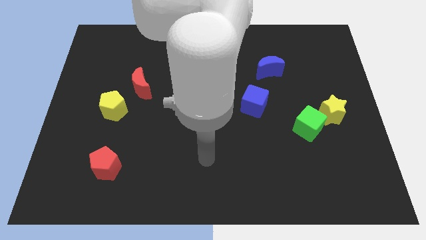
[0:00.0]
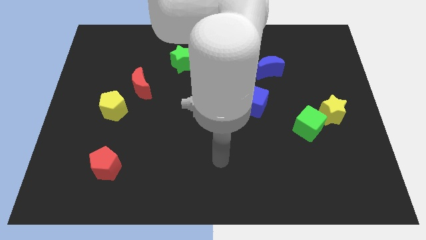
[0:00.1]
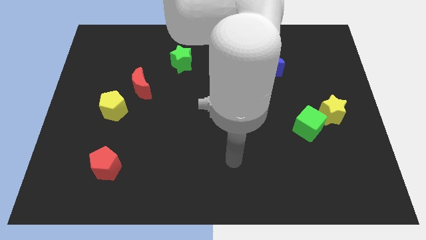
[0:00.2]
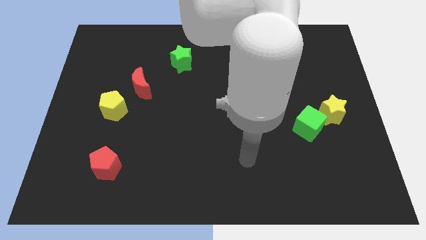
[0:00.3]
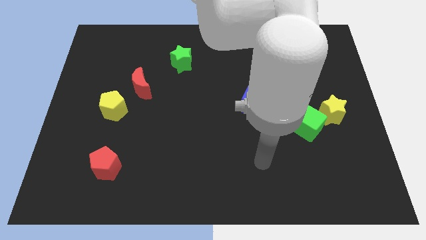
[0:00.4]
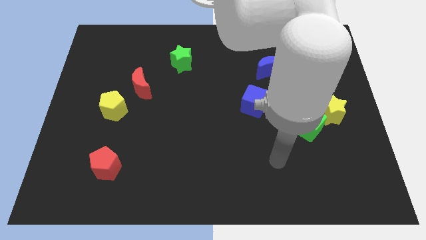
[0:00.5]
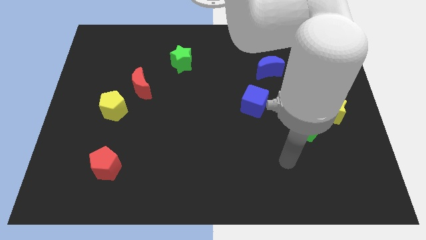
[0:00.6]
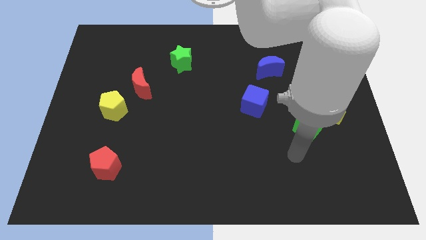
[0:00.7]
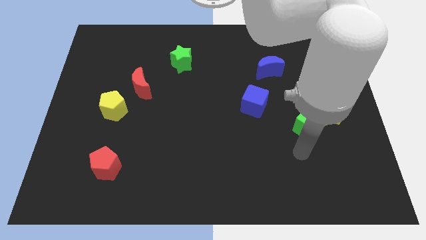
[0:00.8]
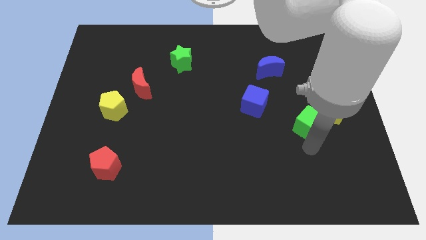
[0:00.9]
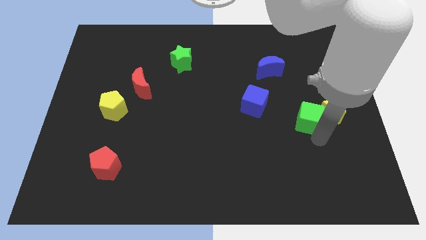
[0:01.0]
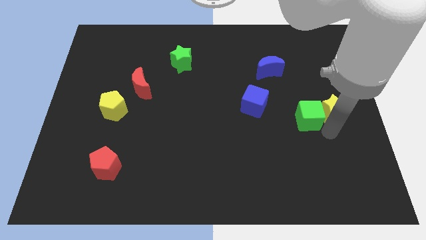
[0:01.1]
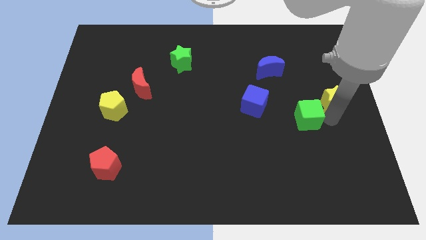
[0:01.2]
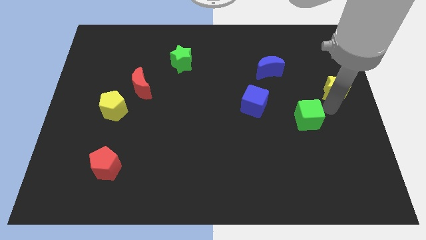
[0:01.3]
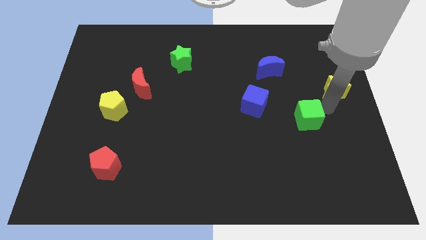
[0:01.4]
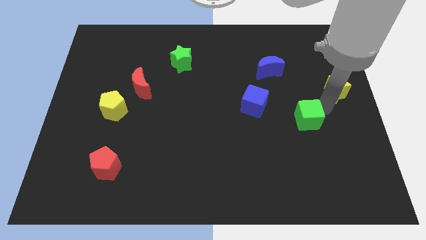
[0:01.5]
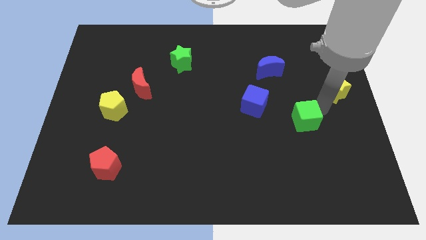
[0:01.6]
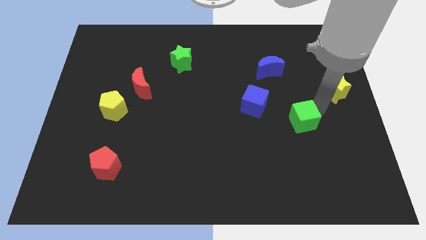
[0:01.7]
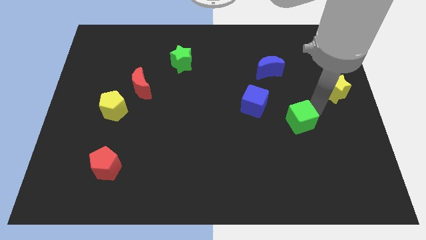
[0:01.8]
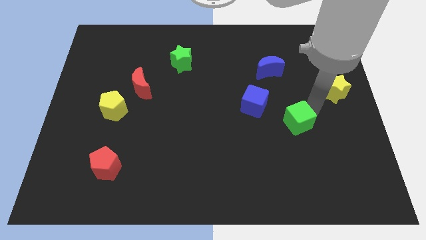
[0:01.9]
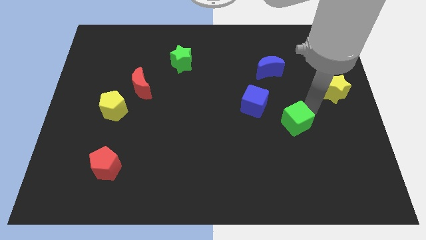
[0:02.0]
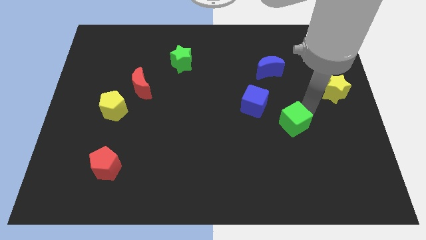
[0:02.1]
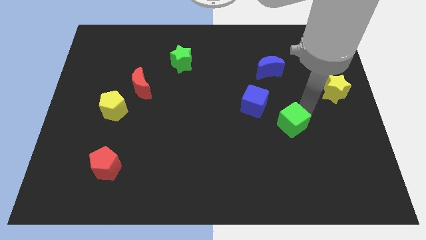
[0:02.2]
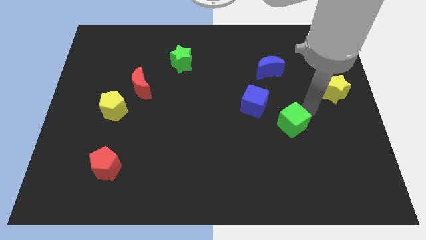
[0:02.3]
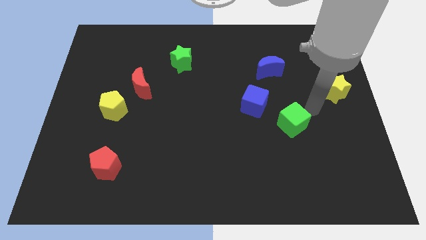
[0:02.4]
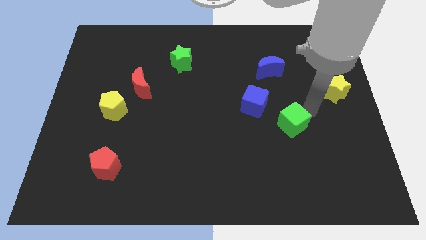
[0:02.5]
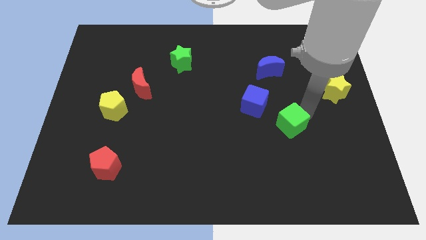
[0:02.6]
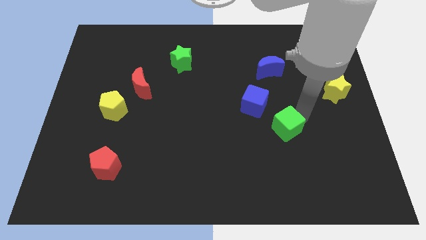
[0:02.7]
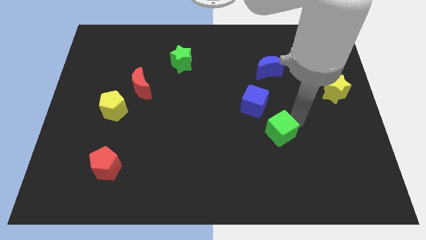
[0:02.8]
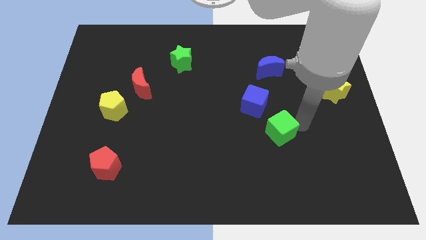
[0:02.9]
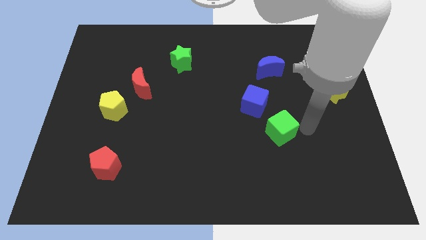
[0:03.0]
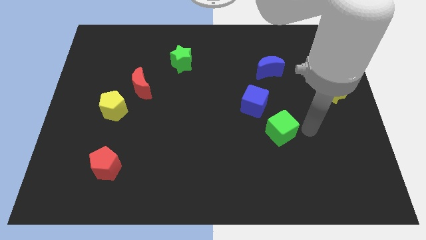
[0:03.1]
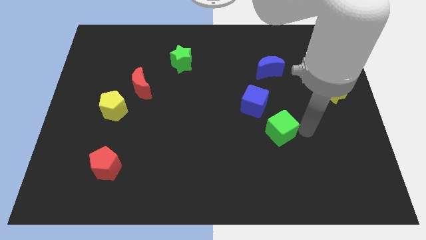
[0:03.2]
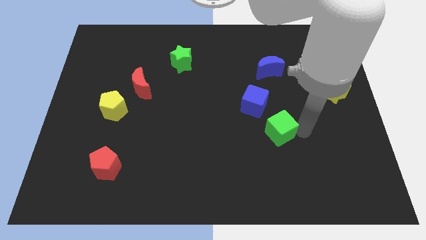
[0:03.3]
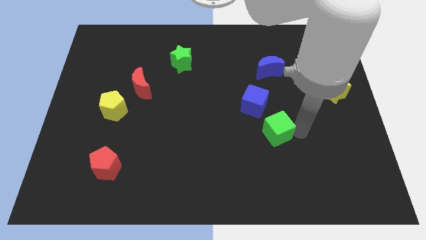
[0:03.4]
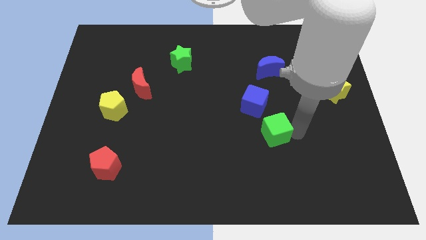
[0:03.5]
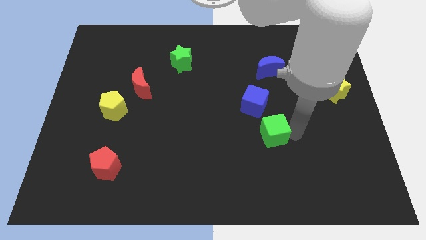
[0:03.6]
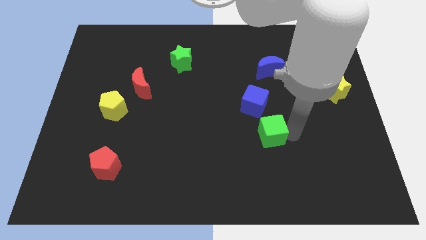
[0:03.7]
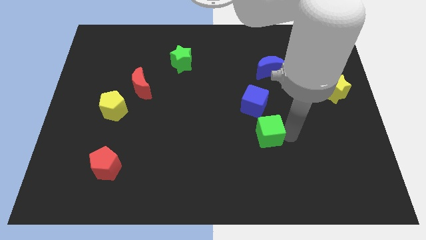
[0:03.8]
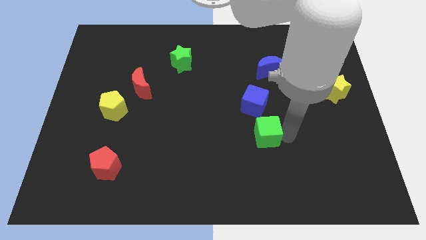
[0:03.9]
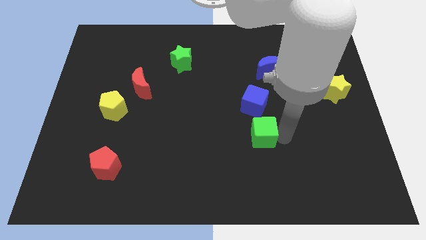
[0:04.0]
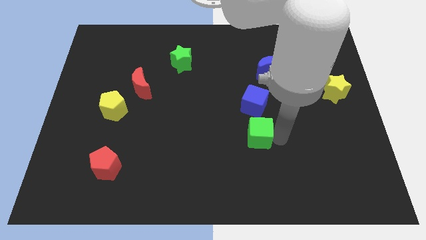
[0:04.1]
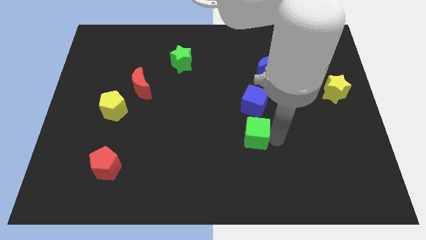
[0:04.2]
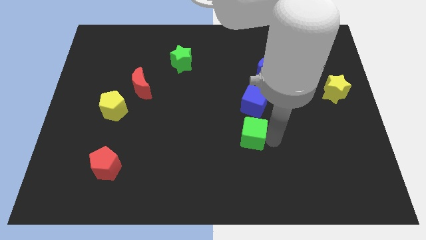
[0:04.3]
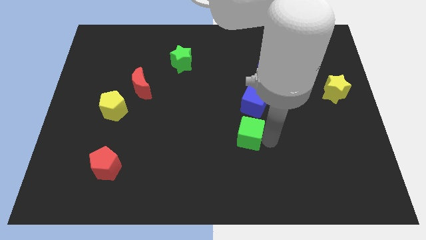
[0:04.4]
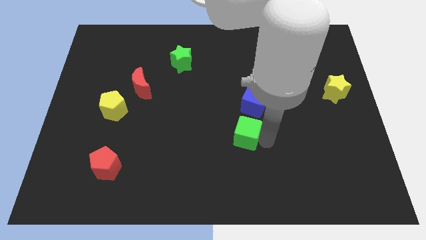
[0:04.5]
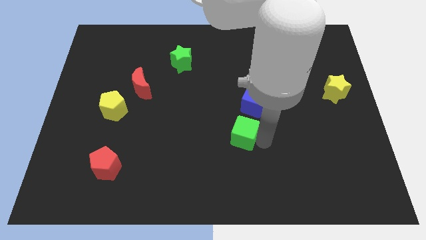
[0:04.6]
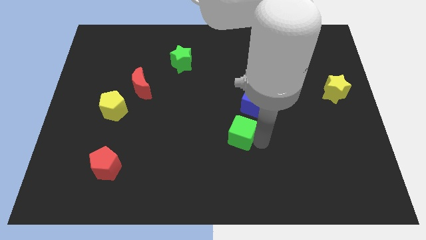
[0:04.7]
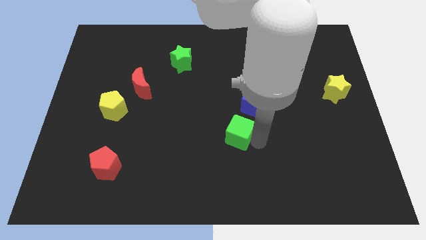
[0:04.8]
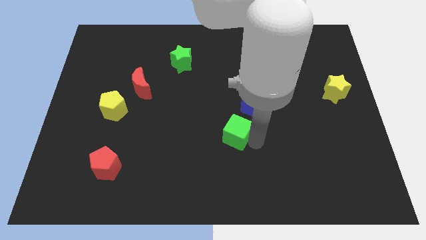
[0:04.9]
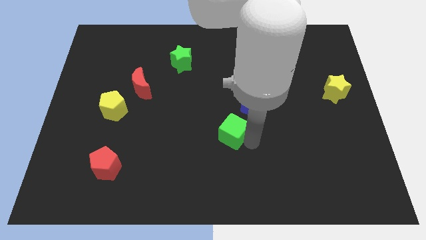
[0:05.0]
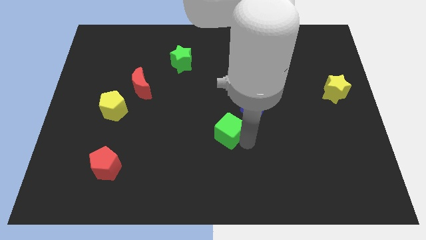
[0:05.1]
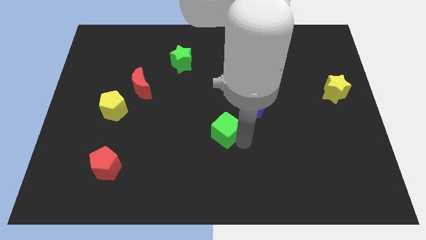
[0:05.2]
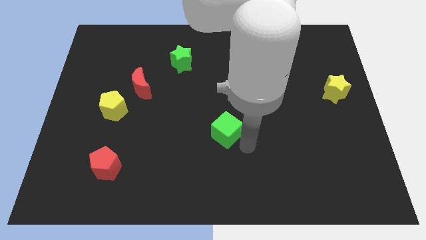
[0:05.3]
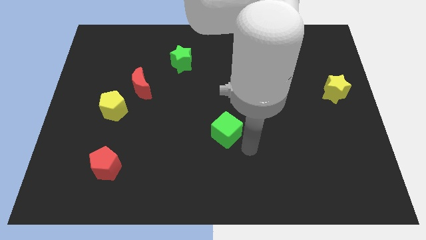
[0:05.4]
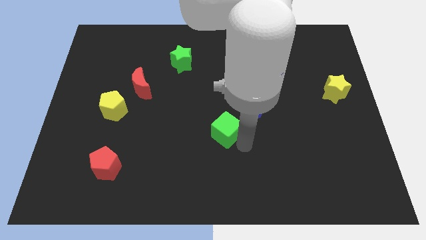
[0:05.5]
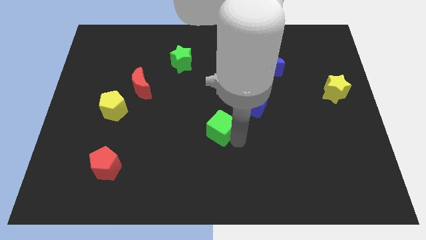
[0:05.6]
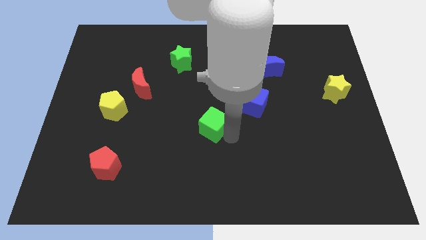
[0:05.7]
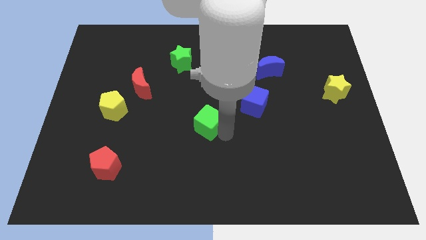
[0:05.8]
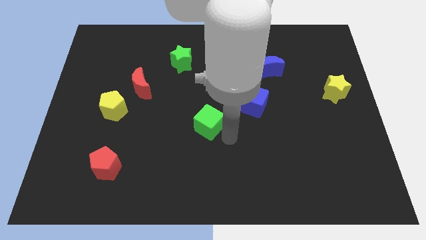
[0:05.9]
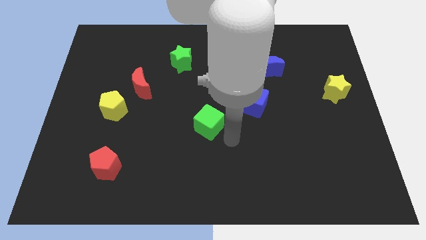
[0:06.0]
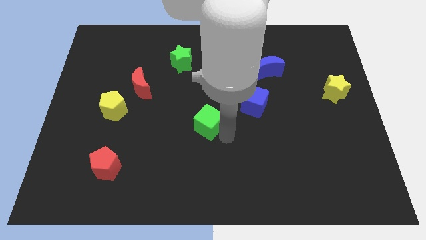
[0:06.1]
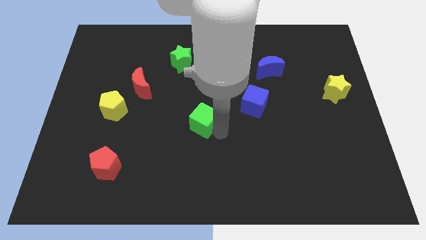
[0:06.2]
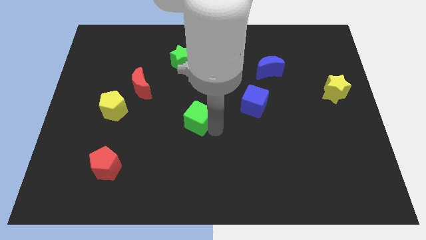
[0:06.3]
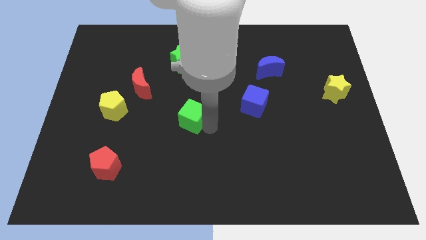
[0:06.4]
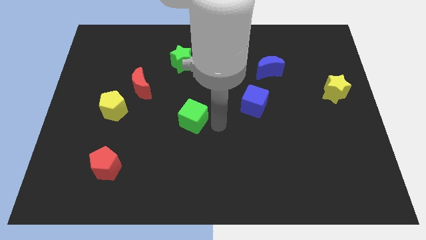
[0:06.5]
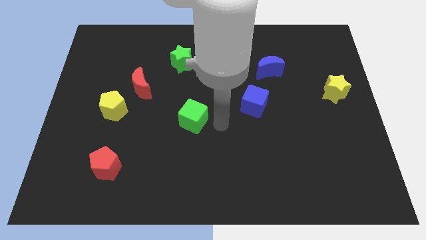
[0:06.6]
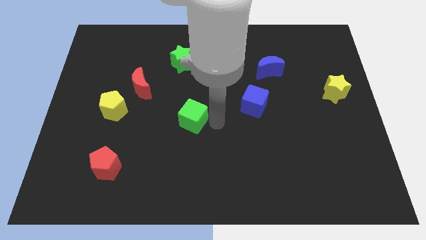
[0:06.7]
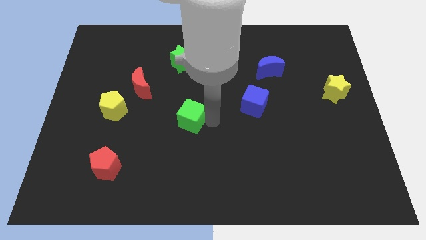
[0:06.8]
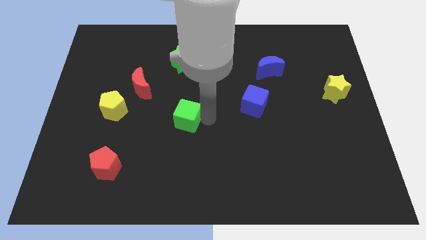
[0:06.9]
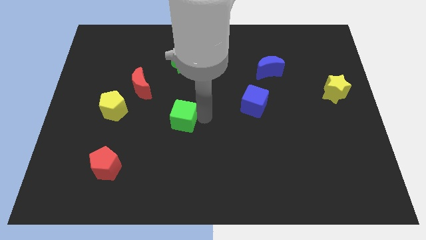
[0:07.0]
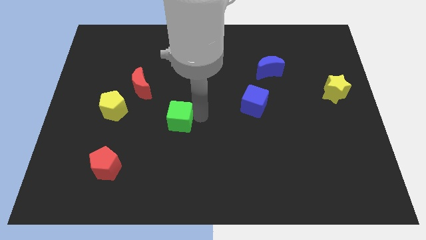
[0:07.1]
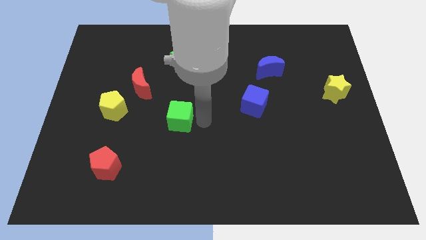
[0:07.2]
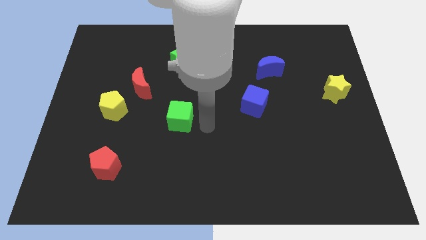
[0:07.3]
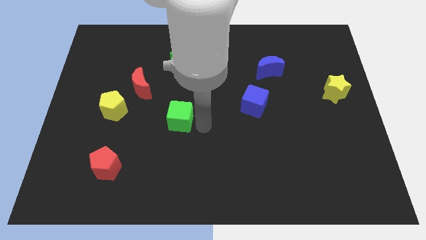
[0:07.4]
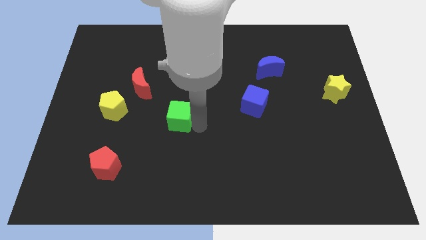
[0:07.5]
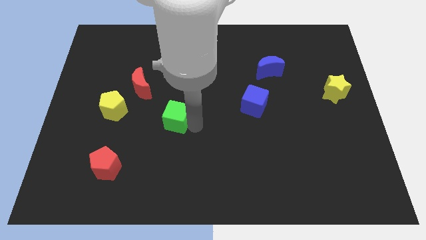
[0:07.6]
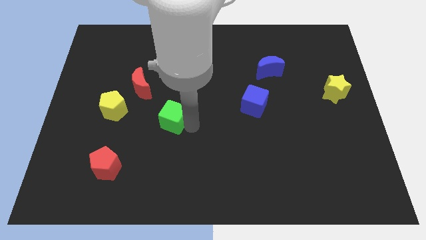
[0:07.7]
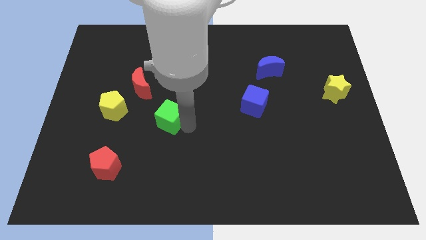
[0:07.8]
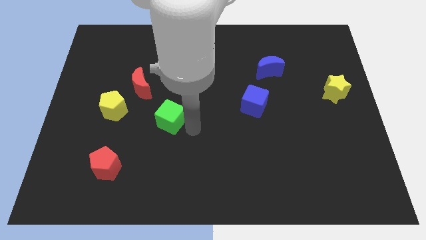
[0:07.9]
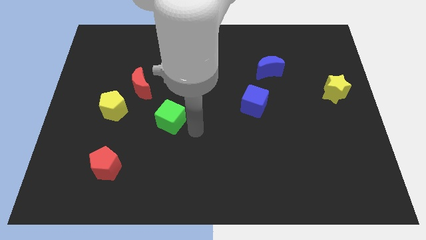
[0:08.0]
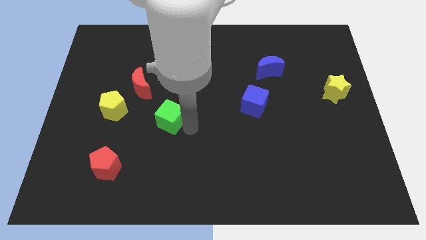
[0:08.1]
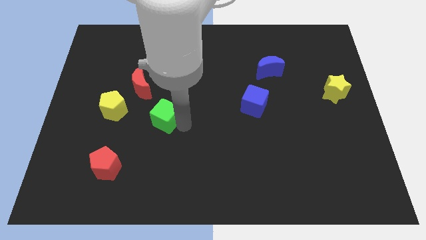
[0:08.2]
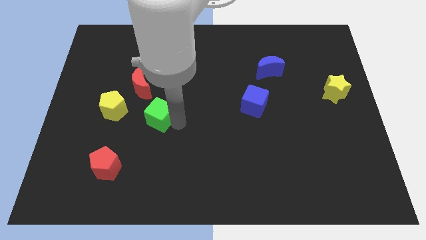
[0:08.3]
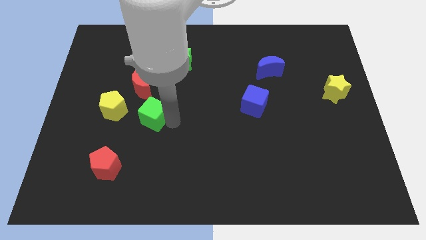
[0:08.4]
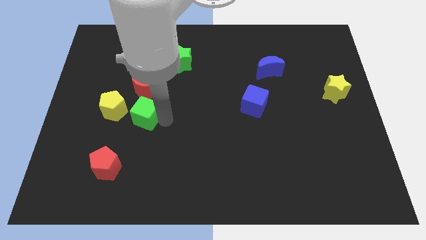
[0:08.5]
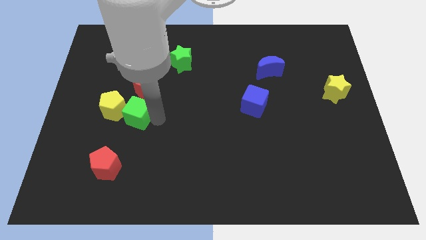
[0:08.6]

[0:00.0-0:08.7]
put the green cube to the yellow pentagon
